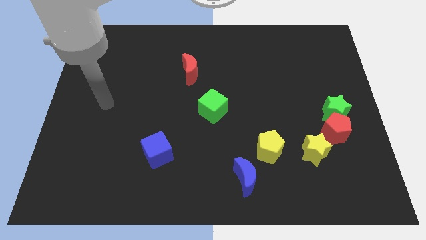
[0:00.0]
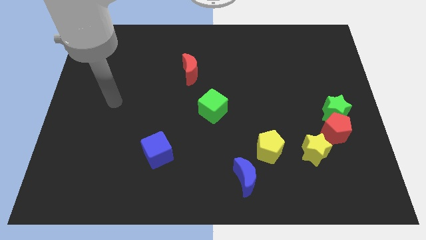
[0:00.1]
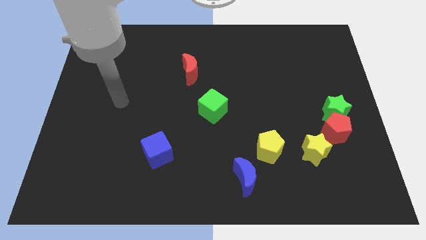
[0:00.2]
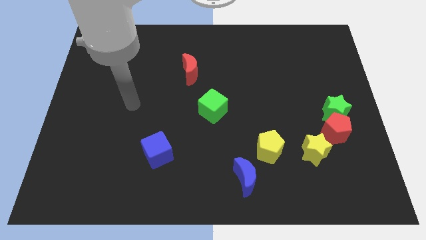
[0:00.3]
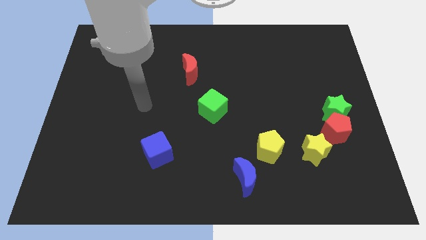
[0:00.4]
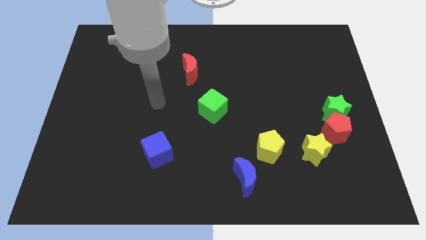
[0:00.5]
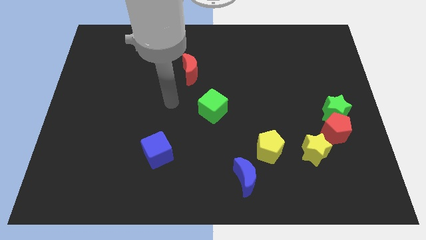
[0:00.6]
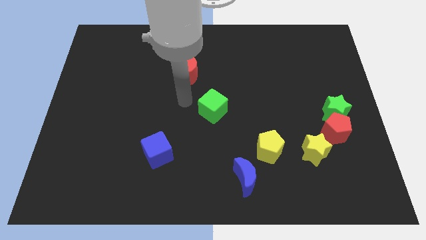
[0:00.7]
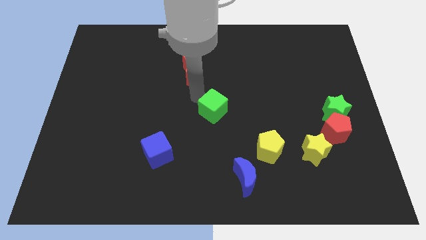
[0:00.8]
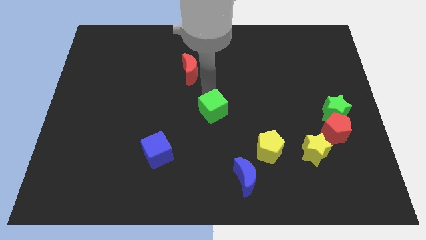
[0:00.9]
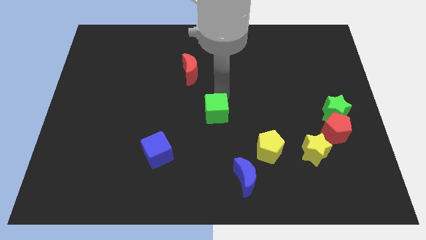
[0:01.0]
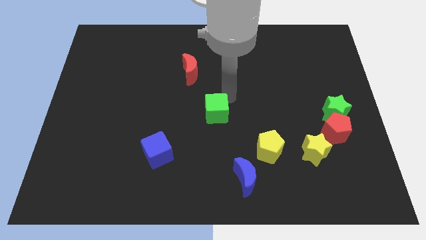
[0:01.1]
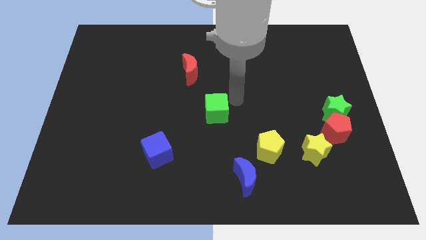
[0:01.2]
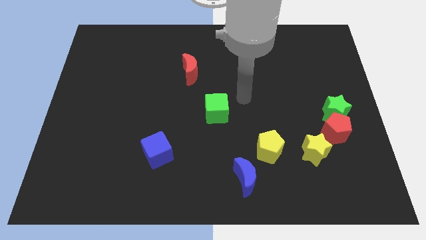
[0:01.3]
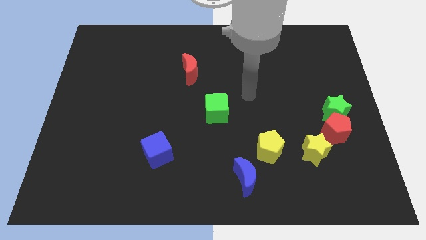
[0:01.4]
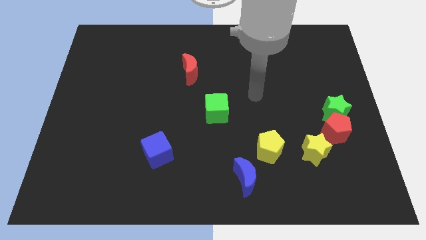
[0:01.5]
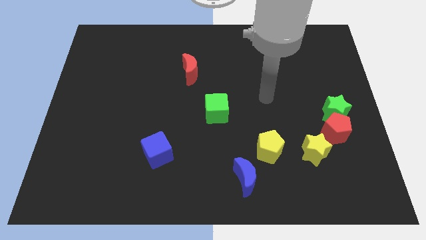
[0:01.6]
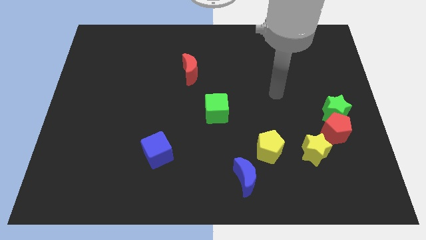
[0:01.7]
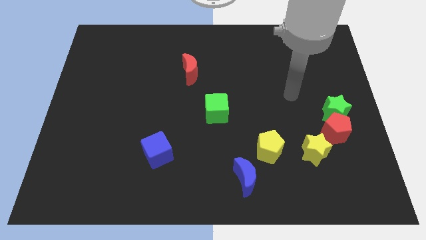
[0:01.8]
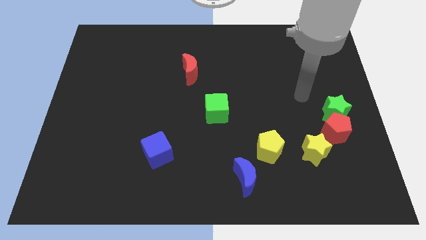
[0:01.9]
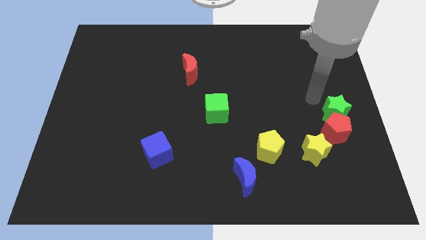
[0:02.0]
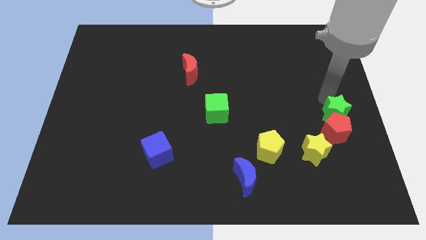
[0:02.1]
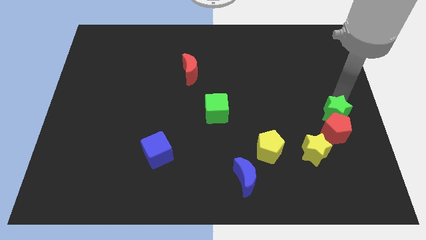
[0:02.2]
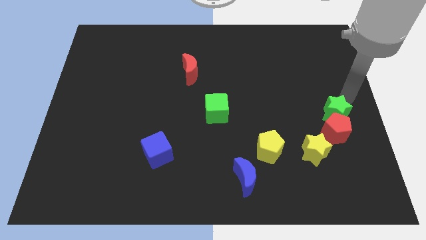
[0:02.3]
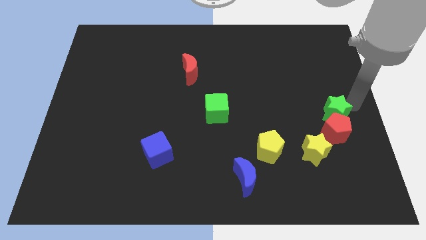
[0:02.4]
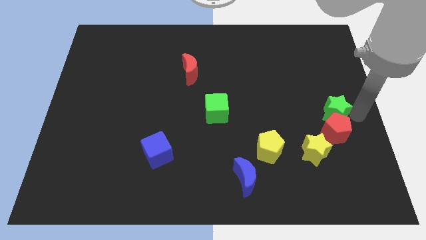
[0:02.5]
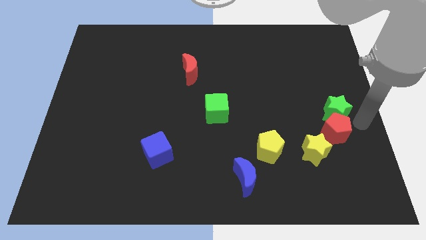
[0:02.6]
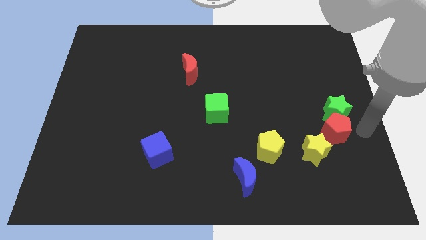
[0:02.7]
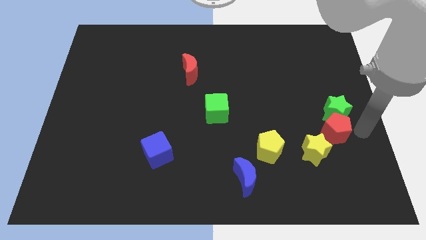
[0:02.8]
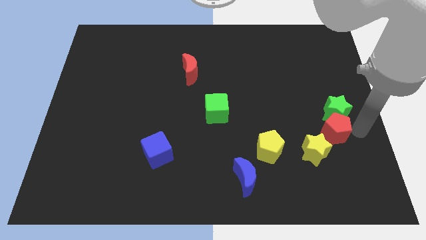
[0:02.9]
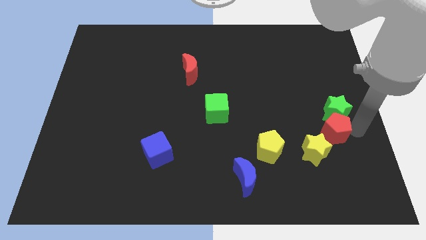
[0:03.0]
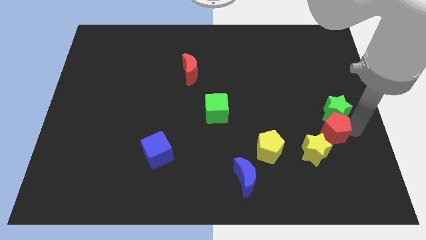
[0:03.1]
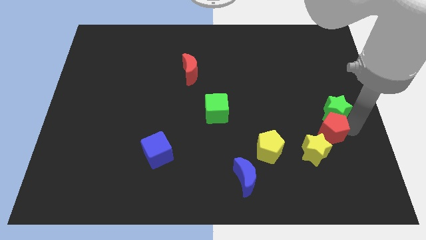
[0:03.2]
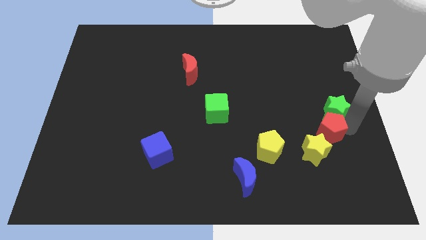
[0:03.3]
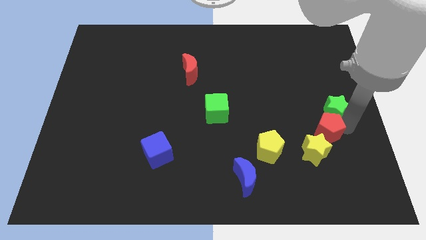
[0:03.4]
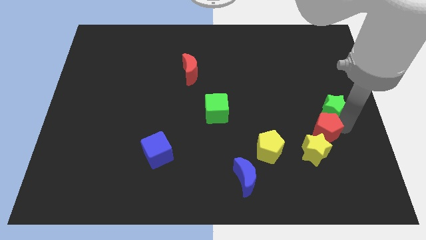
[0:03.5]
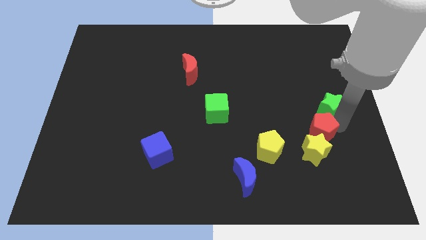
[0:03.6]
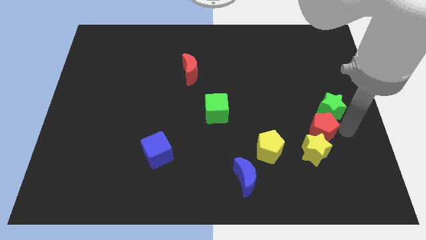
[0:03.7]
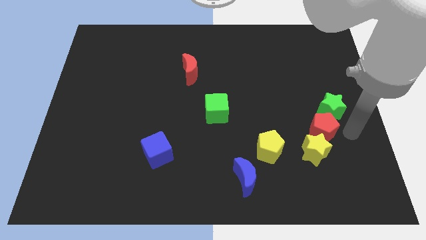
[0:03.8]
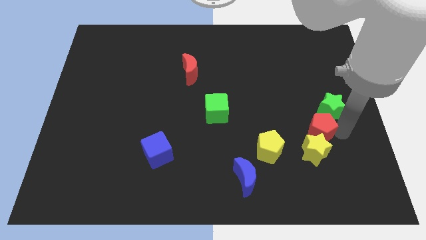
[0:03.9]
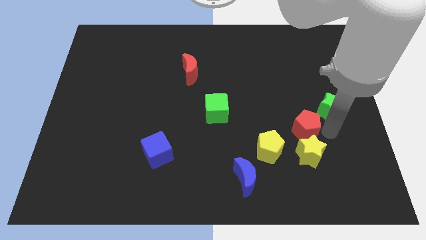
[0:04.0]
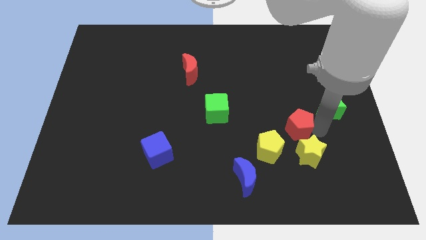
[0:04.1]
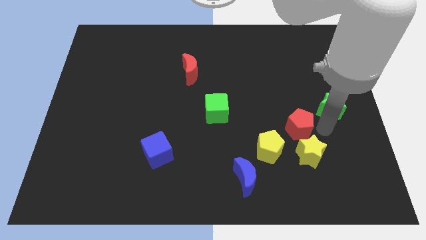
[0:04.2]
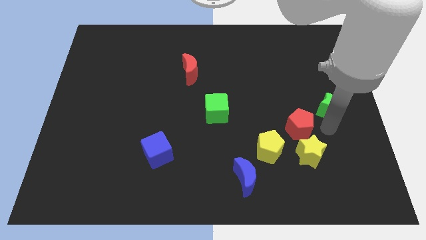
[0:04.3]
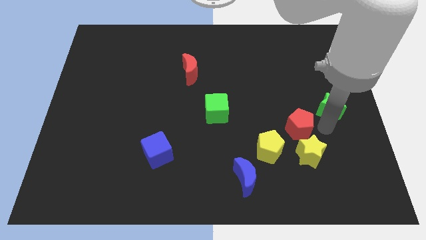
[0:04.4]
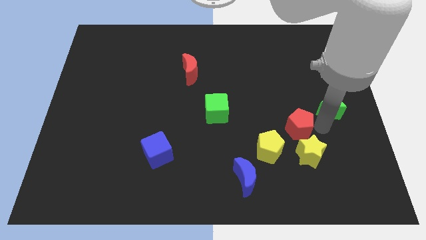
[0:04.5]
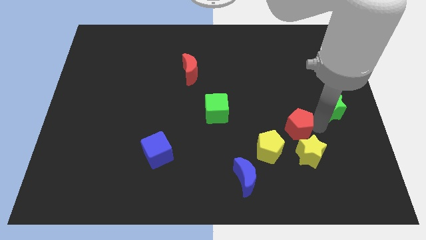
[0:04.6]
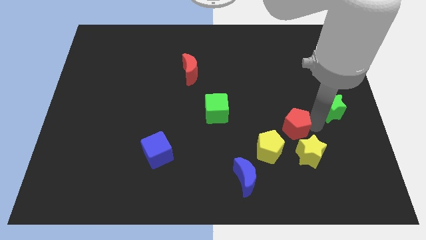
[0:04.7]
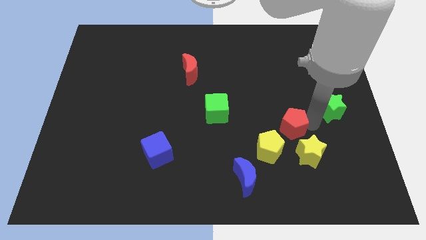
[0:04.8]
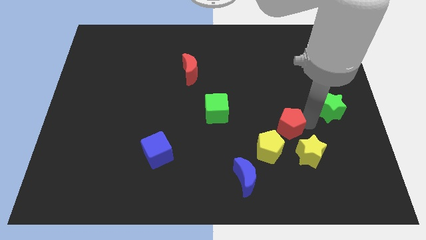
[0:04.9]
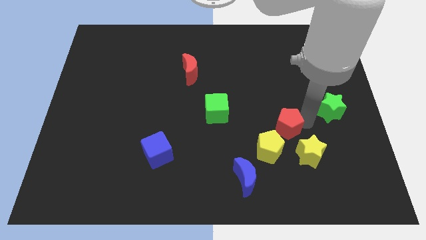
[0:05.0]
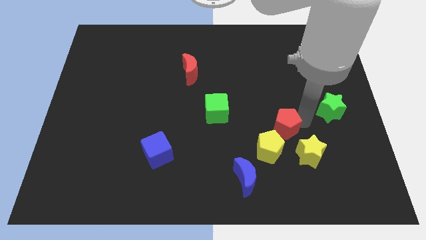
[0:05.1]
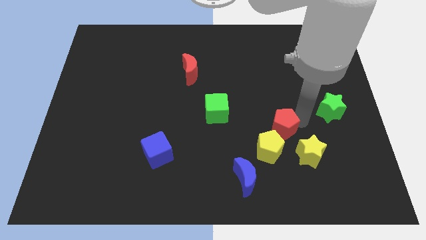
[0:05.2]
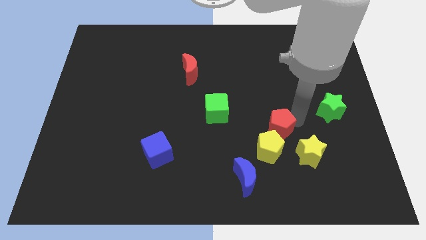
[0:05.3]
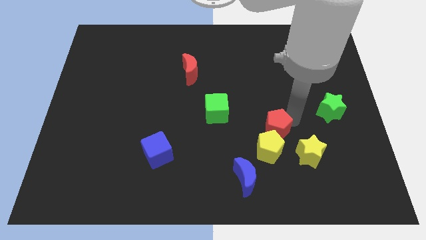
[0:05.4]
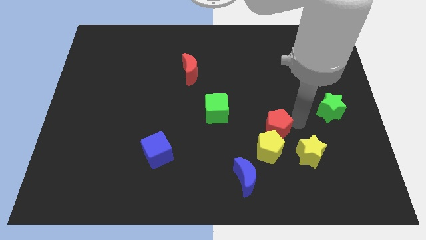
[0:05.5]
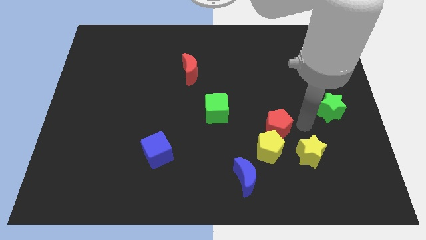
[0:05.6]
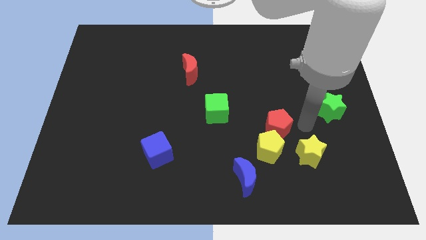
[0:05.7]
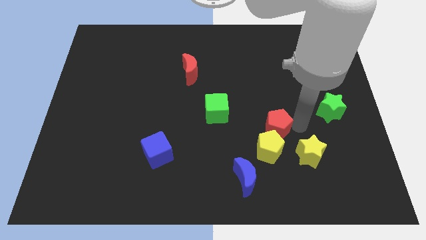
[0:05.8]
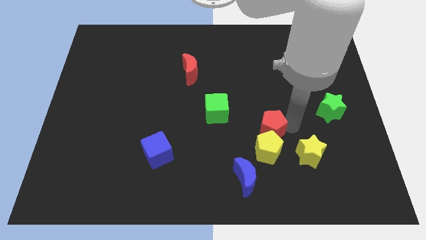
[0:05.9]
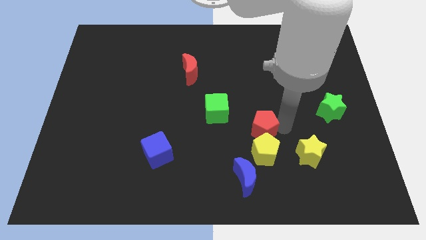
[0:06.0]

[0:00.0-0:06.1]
put the red pentagon diagonally up and to the left of the yellow pentagon

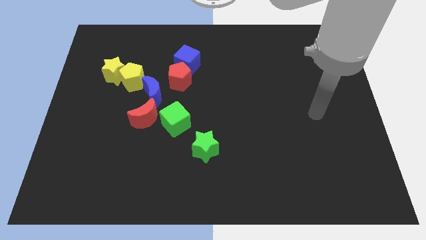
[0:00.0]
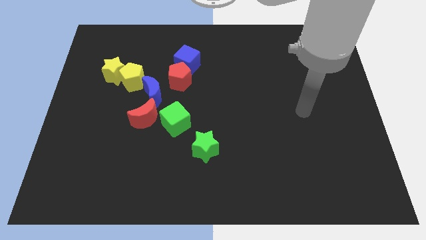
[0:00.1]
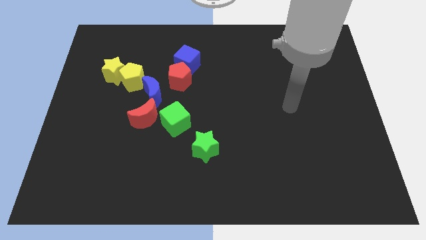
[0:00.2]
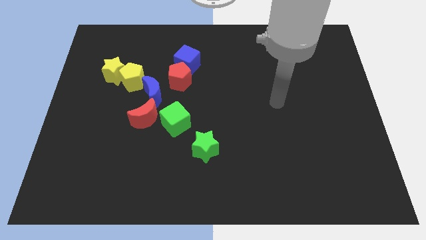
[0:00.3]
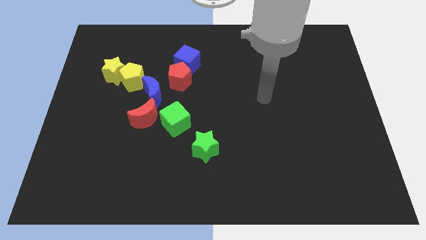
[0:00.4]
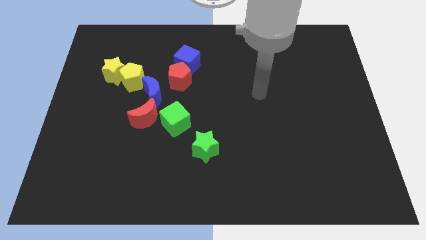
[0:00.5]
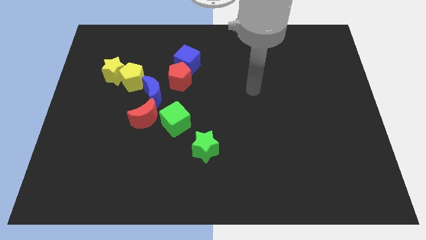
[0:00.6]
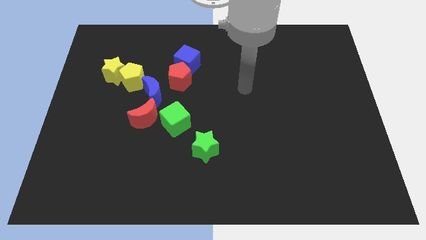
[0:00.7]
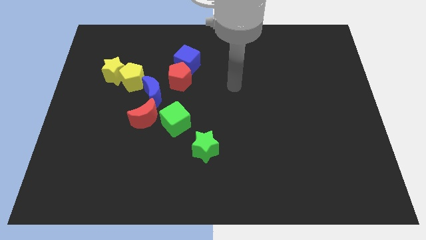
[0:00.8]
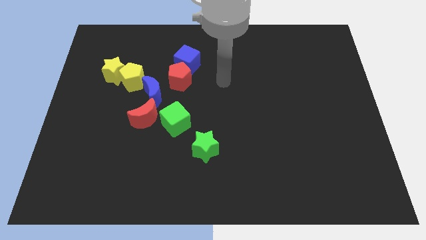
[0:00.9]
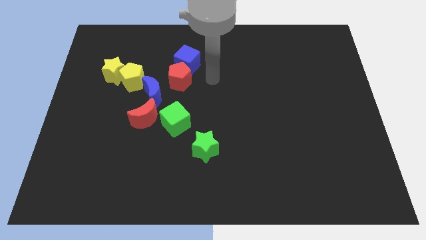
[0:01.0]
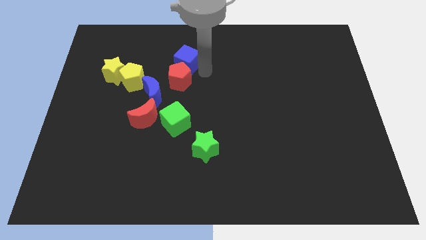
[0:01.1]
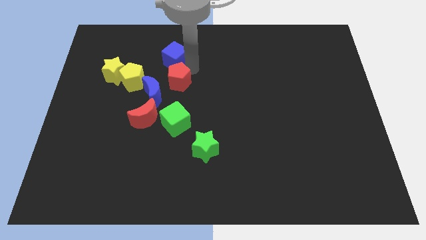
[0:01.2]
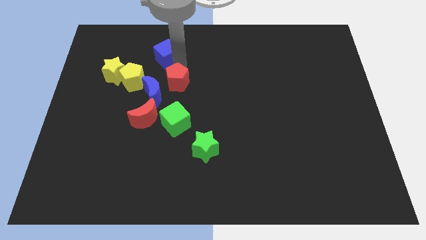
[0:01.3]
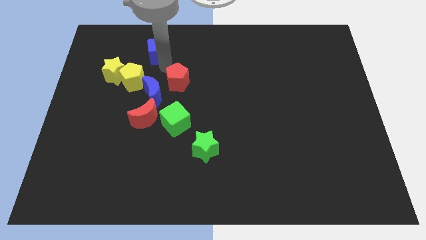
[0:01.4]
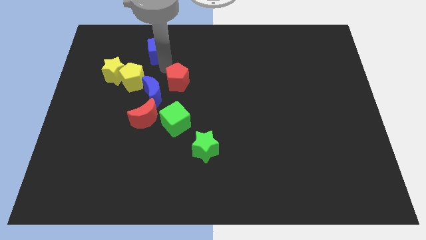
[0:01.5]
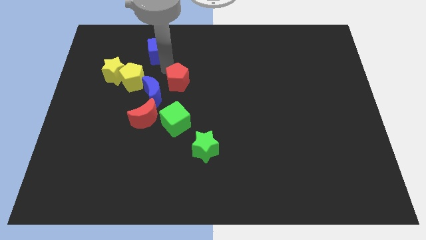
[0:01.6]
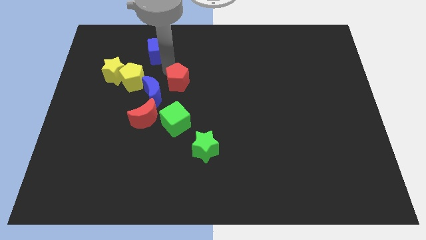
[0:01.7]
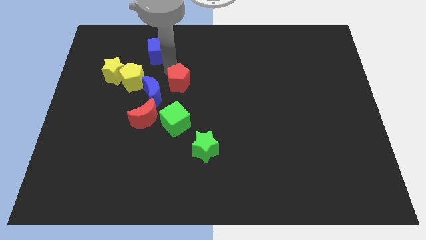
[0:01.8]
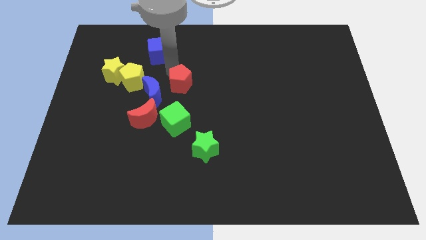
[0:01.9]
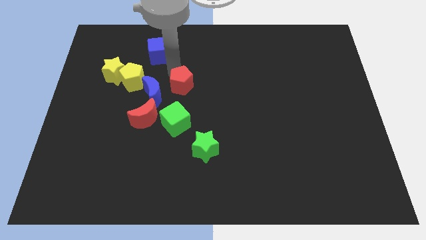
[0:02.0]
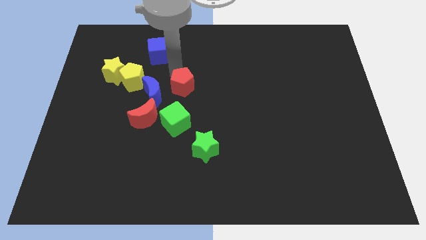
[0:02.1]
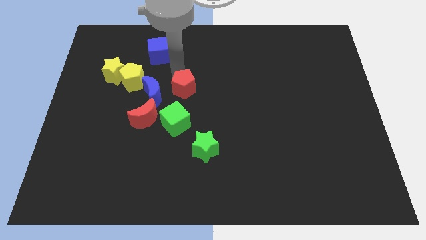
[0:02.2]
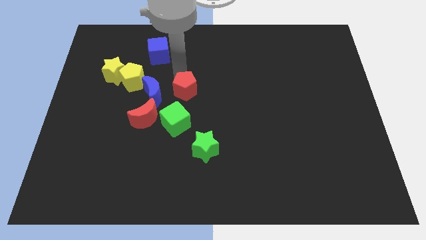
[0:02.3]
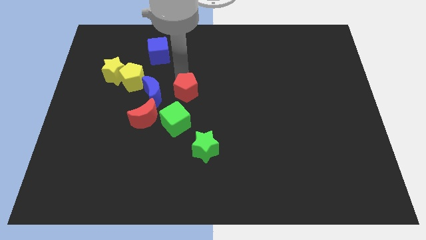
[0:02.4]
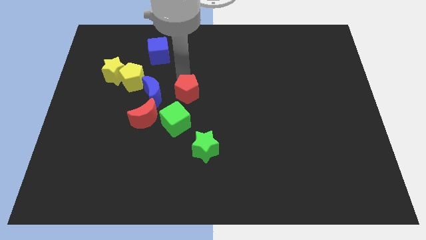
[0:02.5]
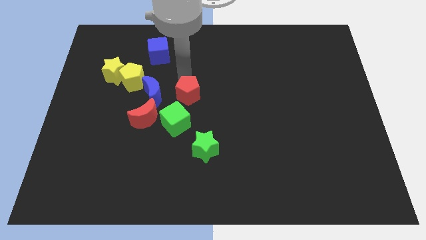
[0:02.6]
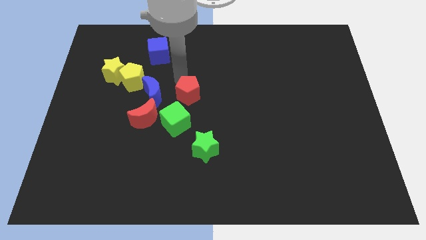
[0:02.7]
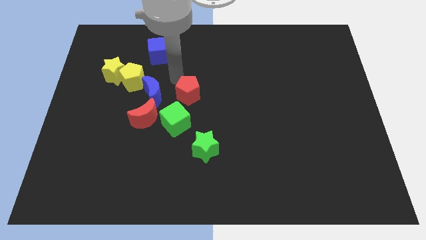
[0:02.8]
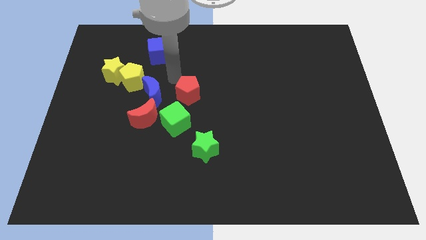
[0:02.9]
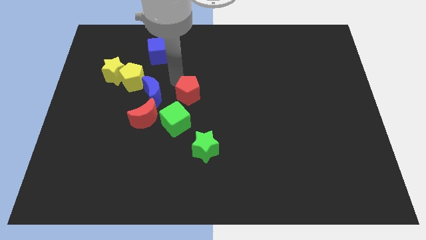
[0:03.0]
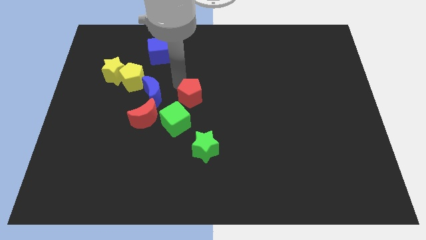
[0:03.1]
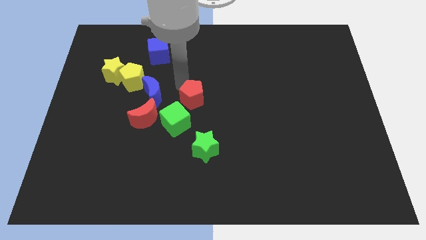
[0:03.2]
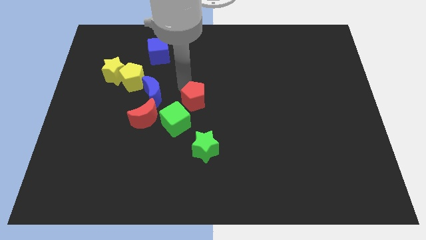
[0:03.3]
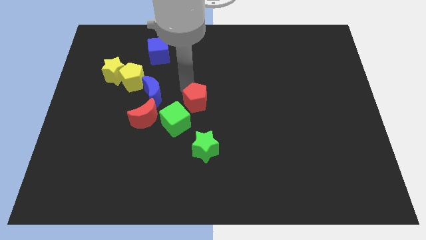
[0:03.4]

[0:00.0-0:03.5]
slide the red pentagon to the right side of the red moon
